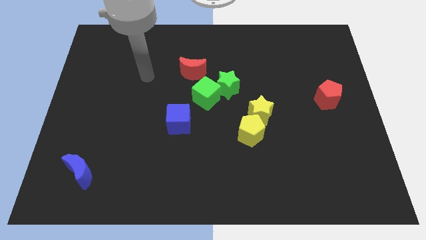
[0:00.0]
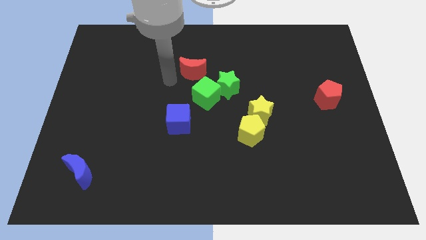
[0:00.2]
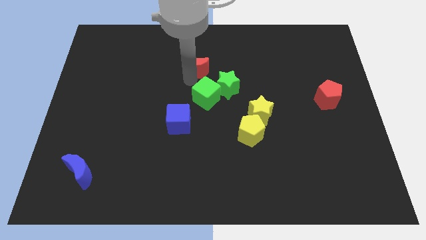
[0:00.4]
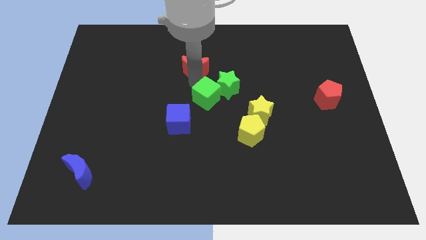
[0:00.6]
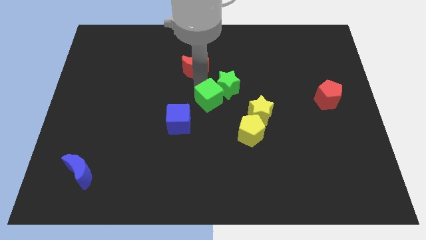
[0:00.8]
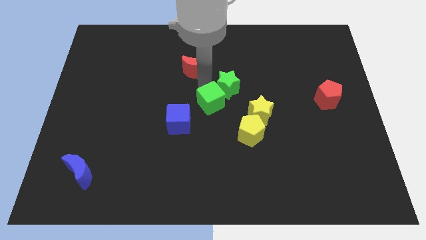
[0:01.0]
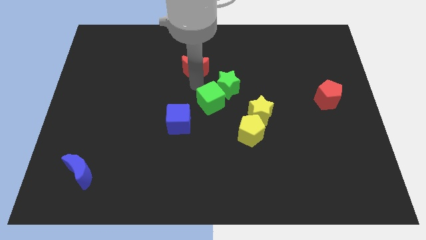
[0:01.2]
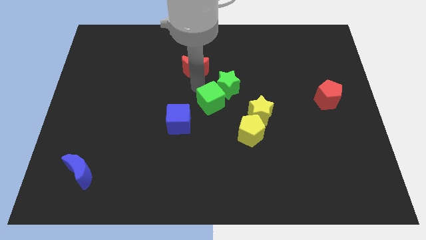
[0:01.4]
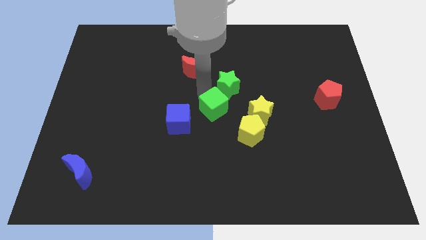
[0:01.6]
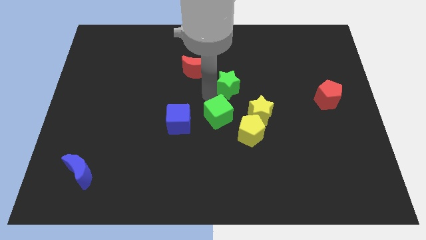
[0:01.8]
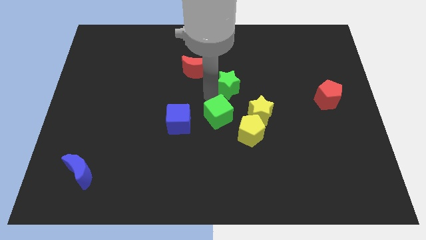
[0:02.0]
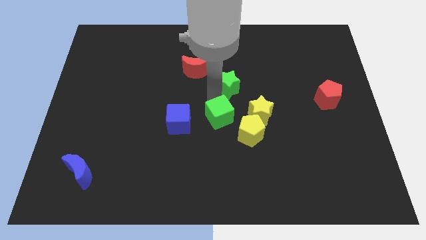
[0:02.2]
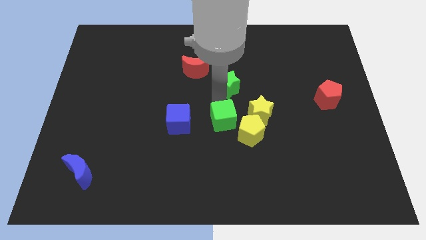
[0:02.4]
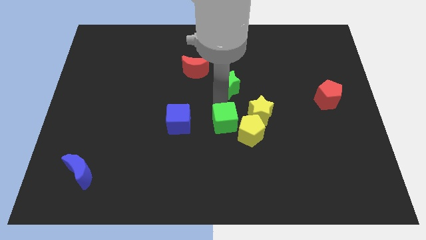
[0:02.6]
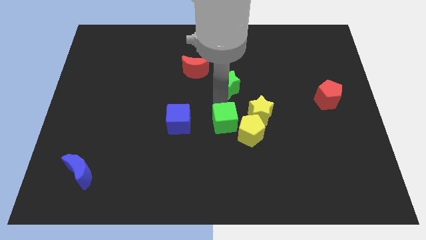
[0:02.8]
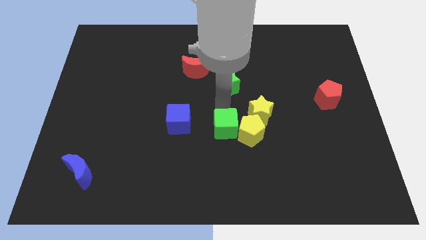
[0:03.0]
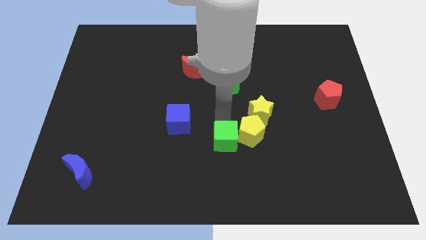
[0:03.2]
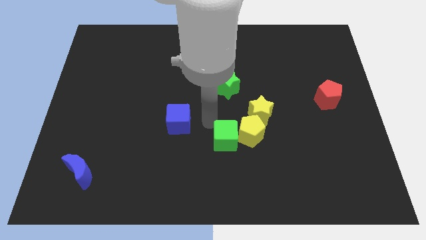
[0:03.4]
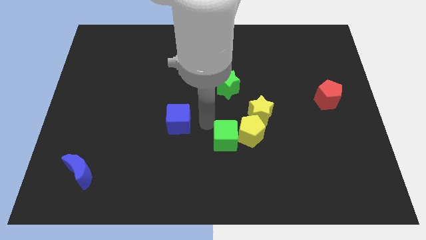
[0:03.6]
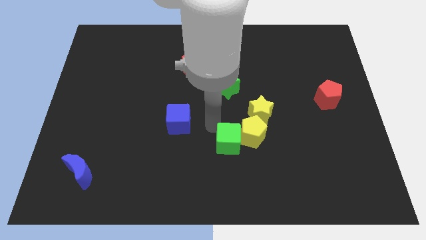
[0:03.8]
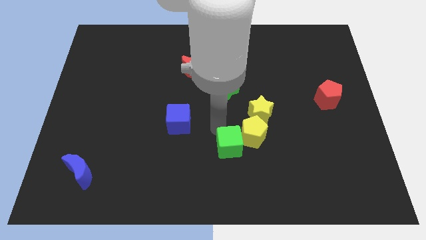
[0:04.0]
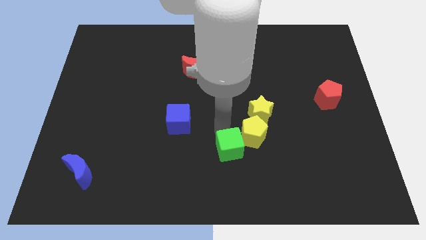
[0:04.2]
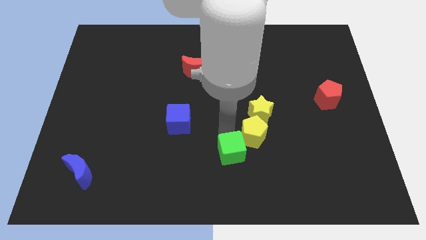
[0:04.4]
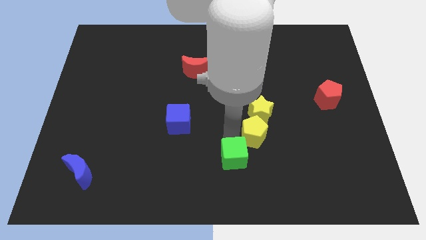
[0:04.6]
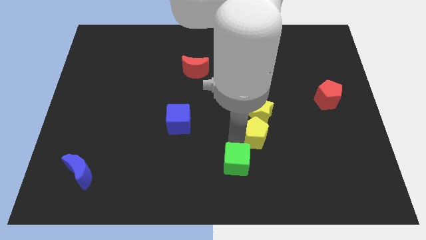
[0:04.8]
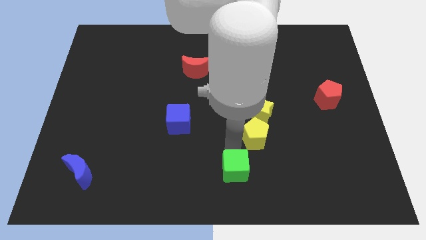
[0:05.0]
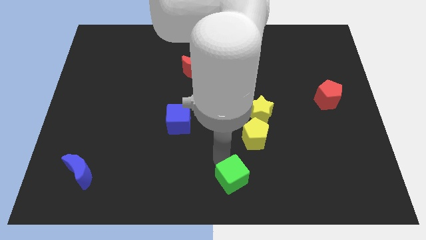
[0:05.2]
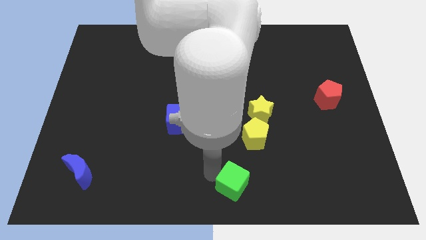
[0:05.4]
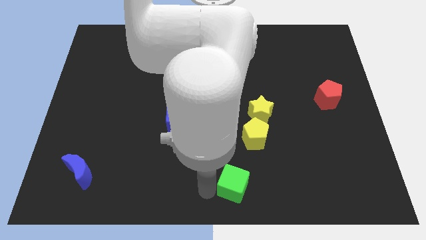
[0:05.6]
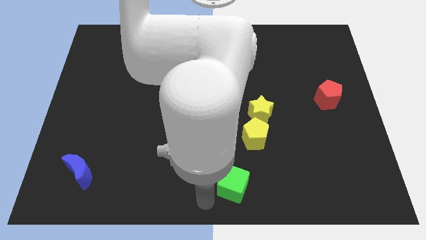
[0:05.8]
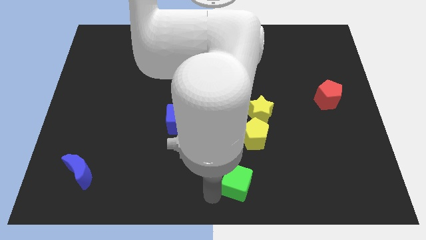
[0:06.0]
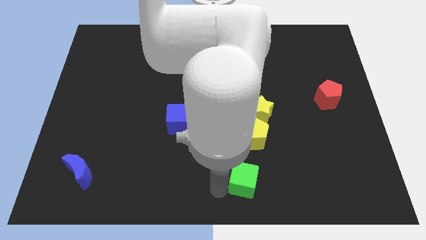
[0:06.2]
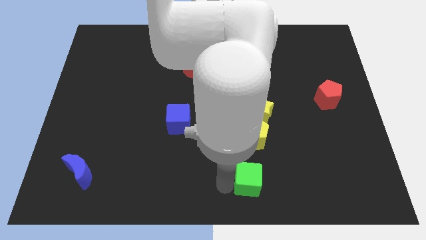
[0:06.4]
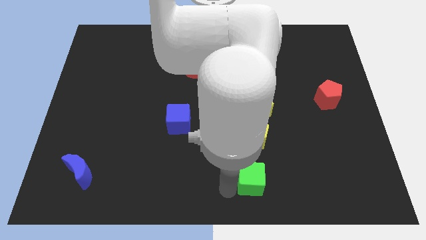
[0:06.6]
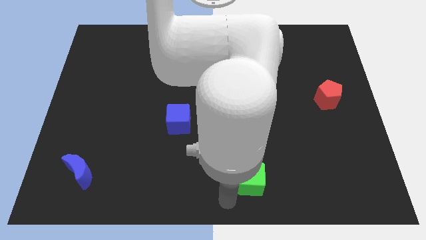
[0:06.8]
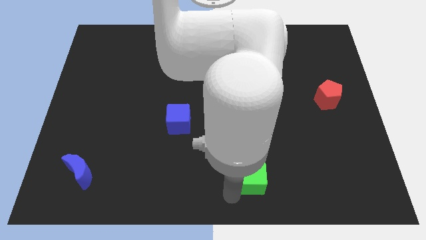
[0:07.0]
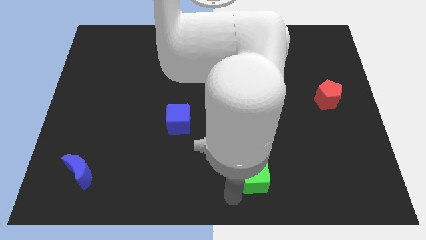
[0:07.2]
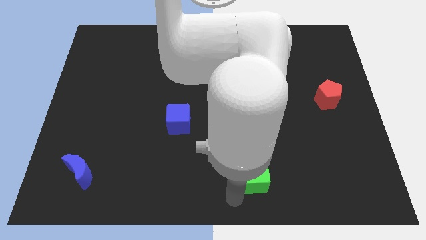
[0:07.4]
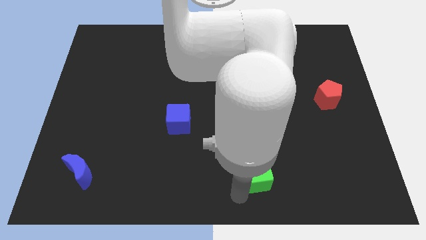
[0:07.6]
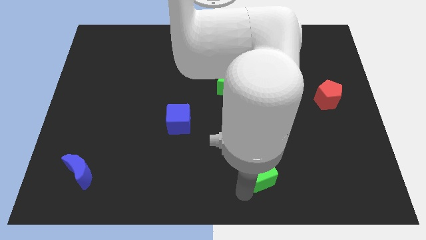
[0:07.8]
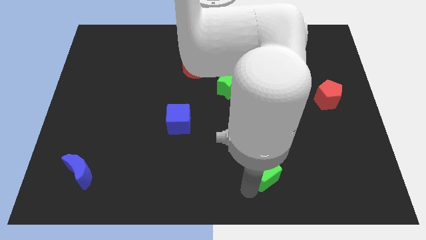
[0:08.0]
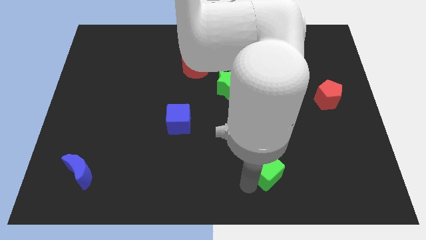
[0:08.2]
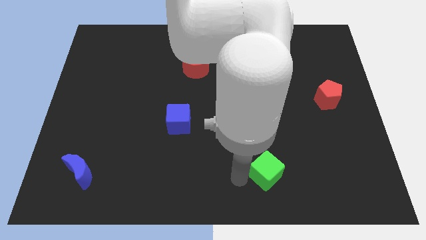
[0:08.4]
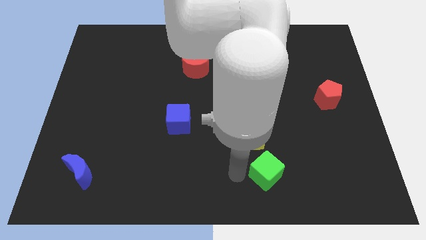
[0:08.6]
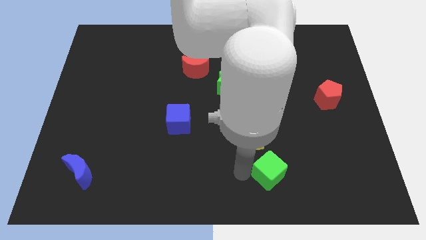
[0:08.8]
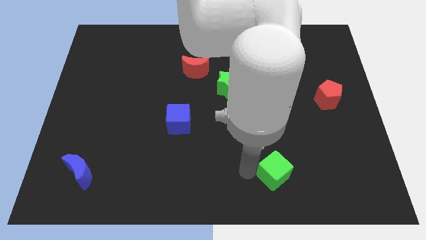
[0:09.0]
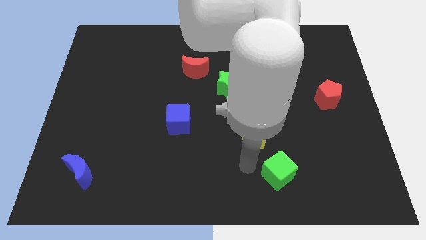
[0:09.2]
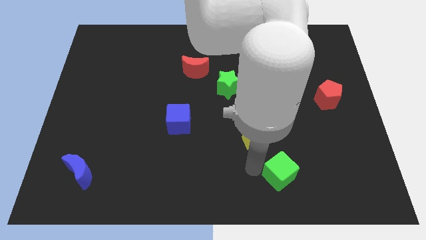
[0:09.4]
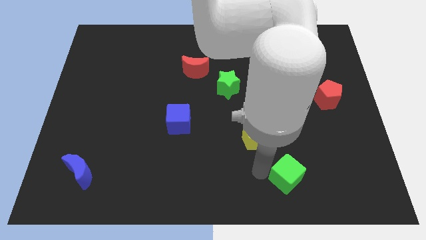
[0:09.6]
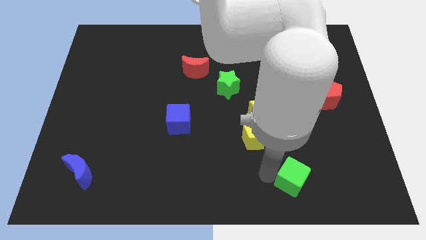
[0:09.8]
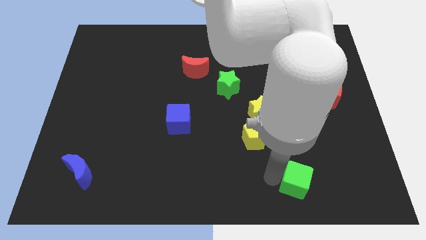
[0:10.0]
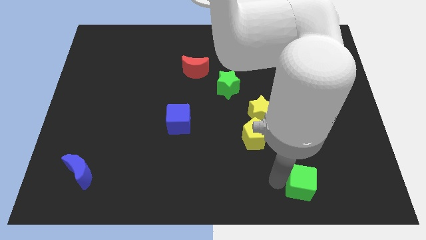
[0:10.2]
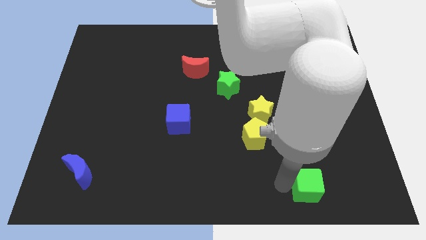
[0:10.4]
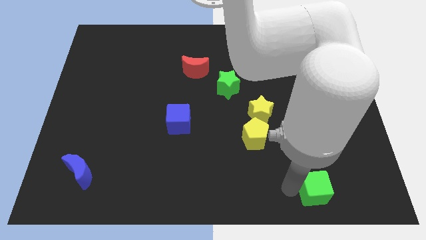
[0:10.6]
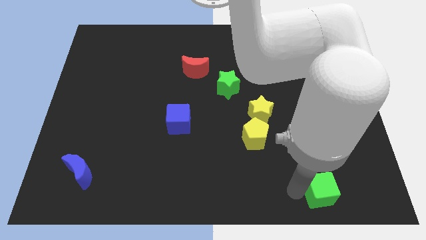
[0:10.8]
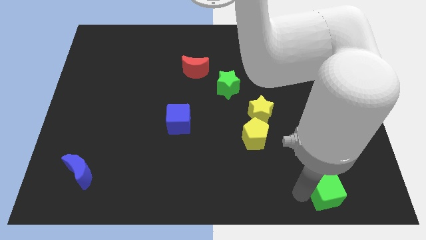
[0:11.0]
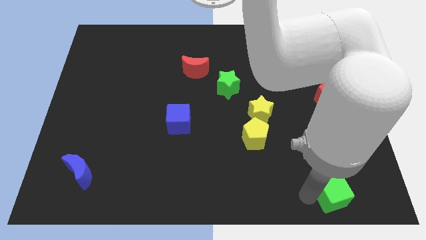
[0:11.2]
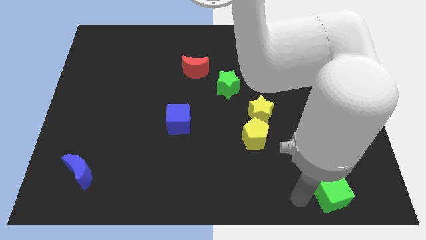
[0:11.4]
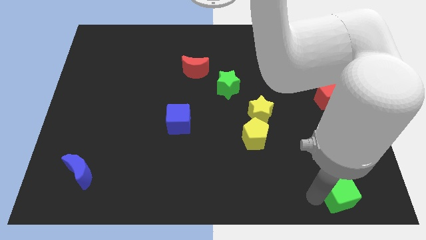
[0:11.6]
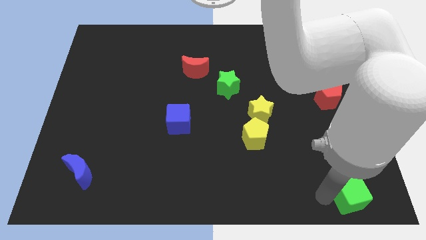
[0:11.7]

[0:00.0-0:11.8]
put the green cube to the lower right corner
